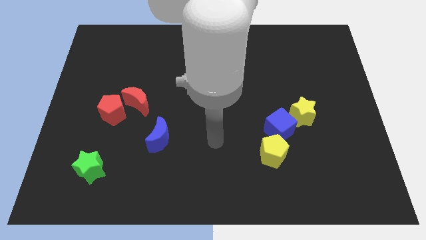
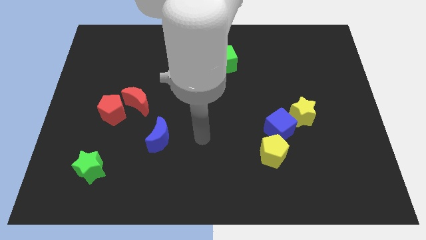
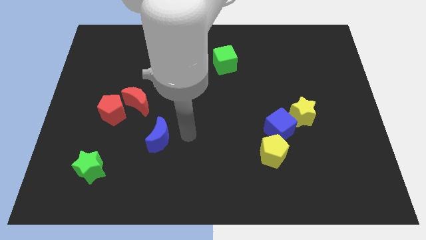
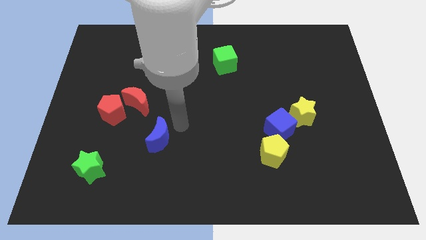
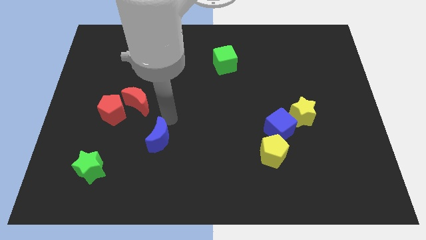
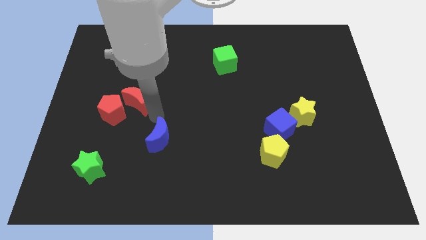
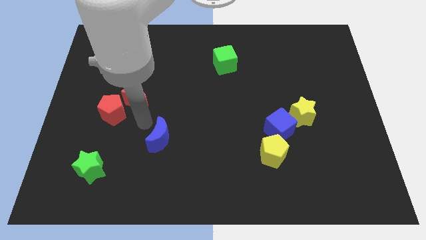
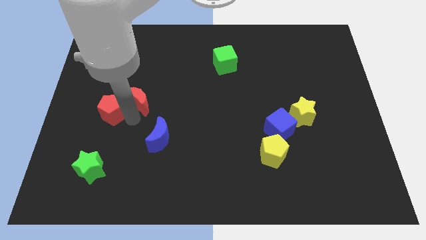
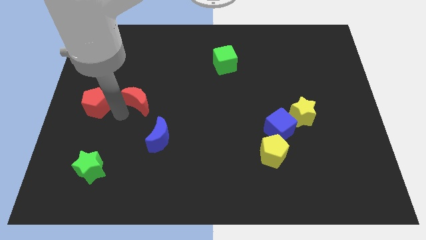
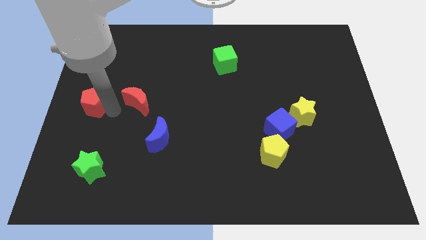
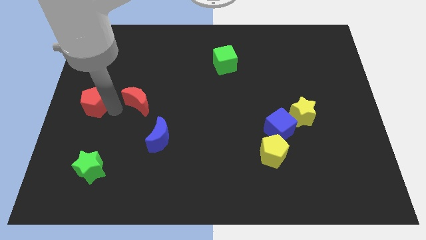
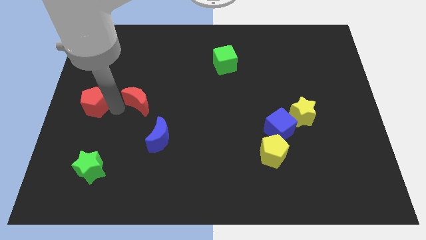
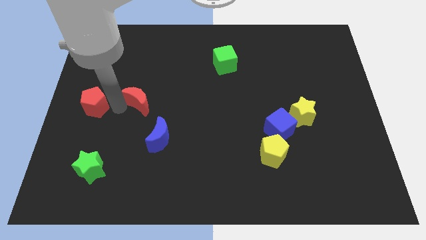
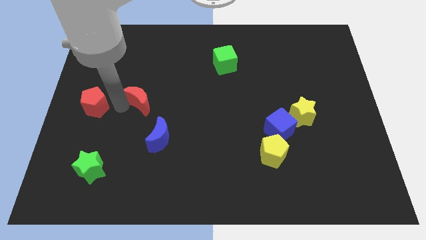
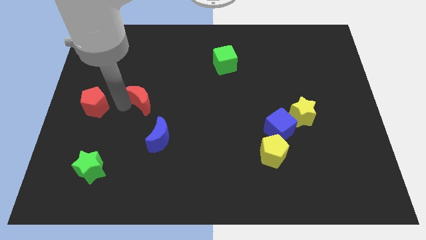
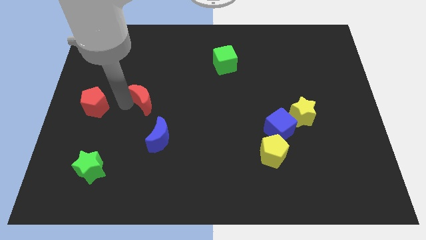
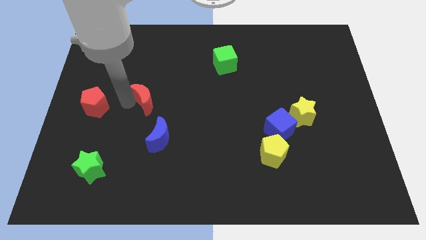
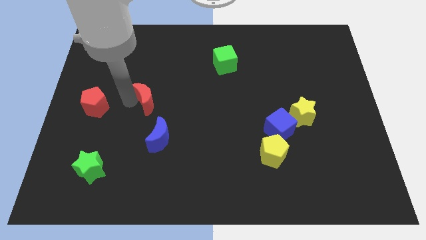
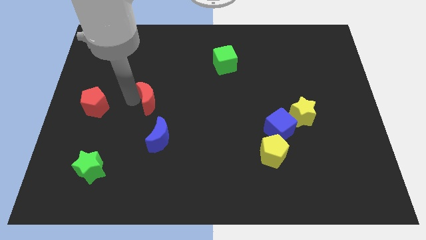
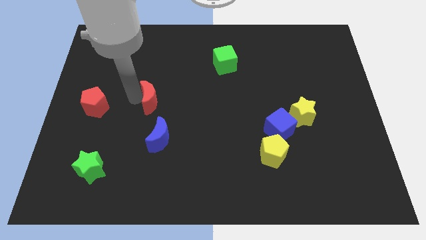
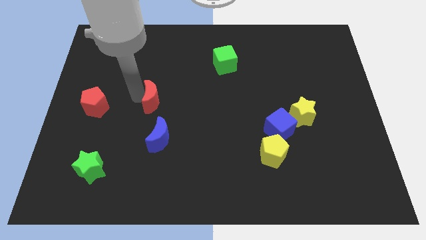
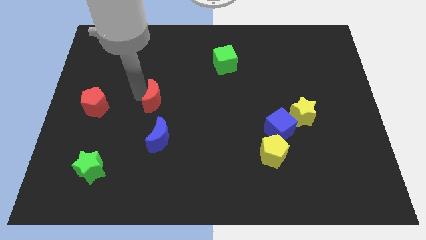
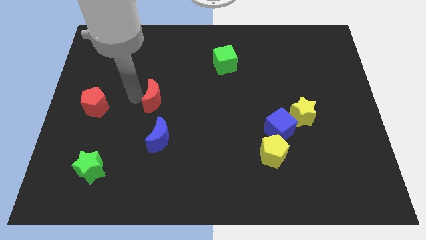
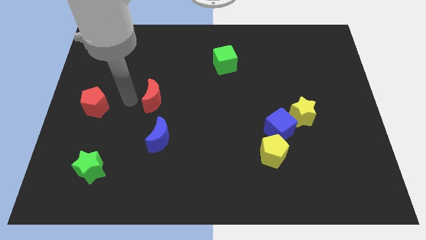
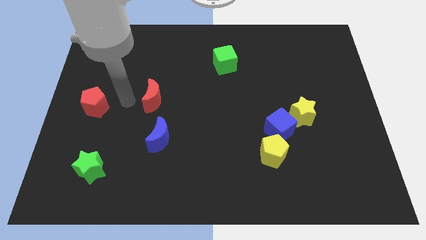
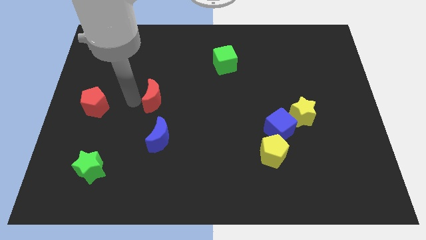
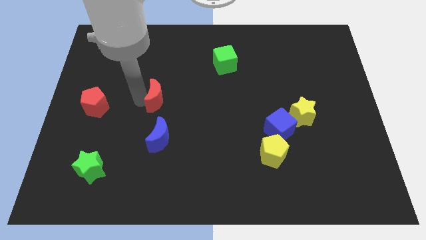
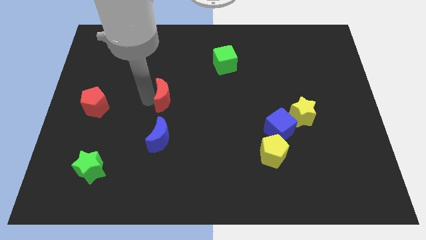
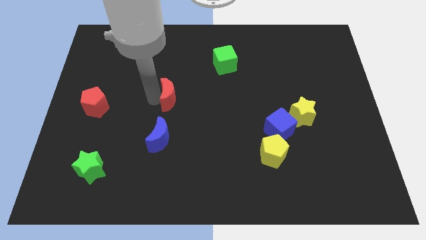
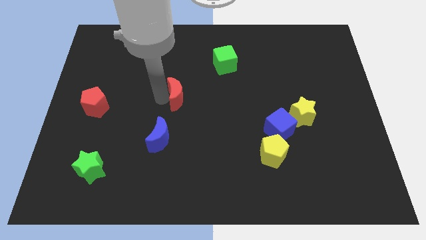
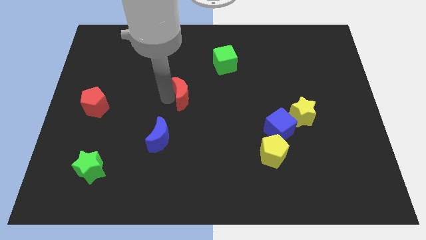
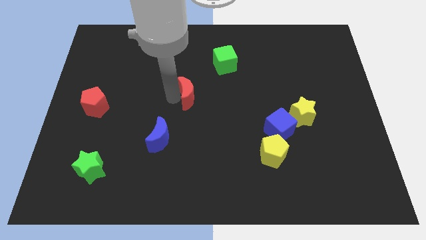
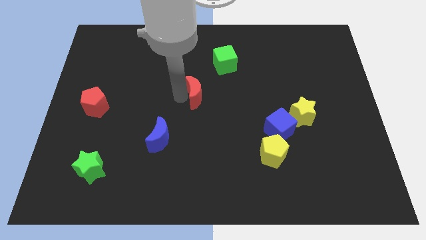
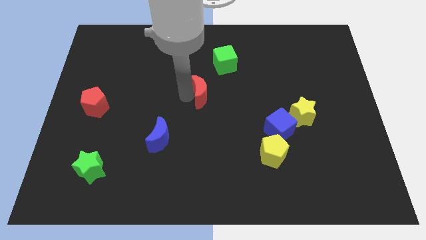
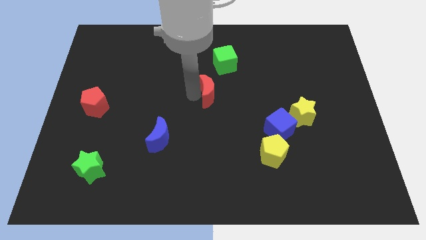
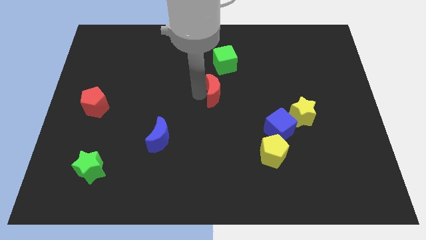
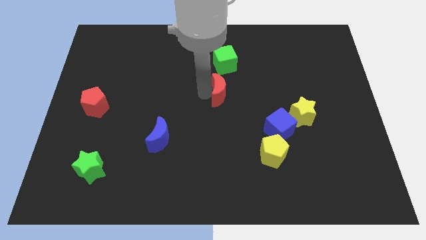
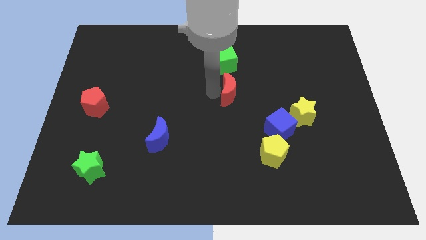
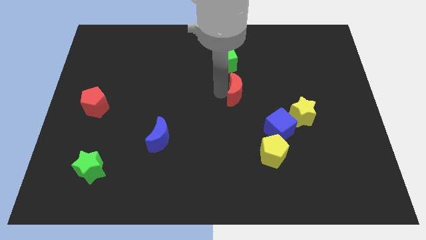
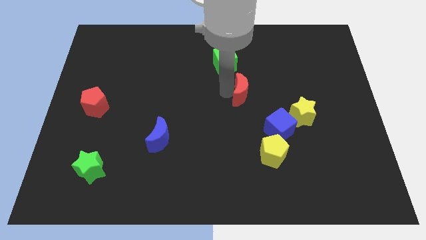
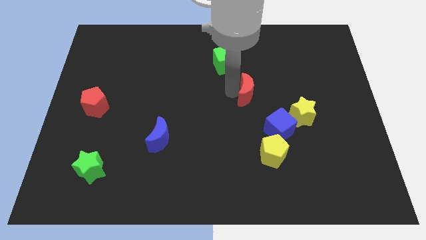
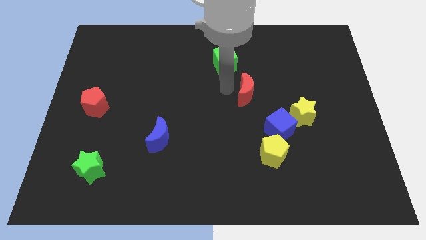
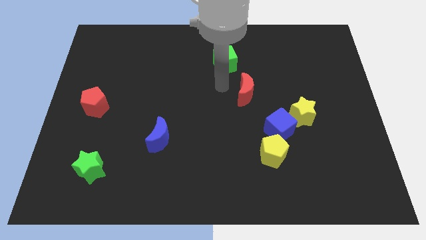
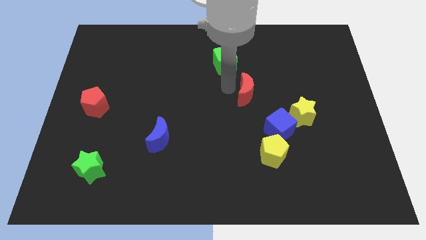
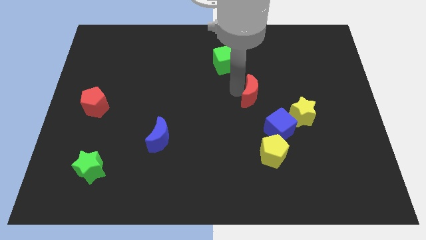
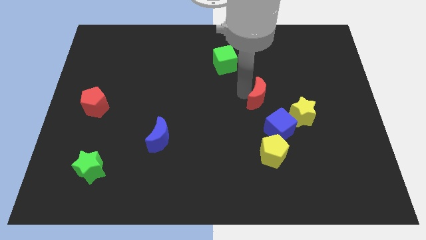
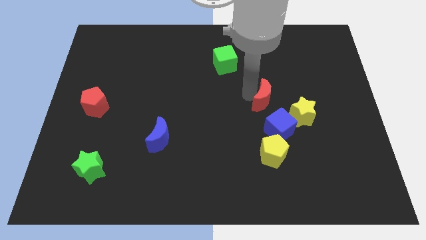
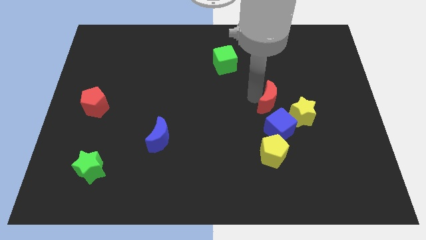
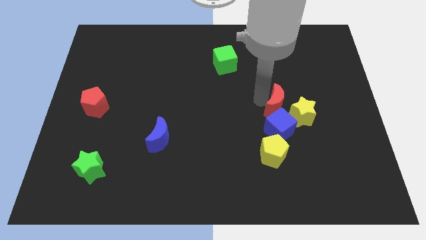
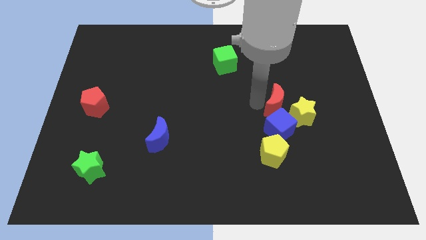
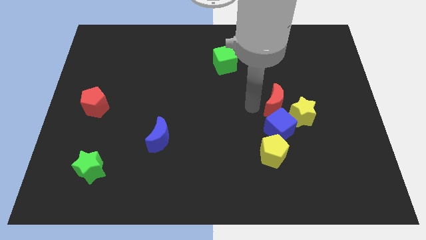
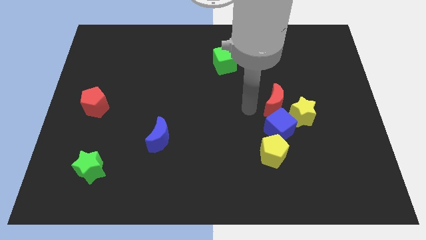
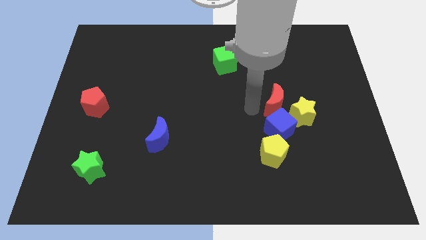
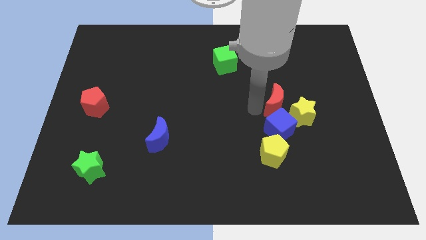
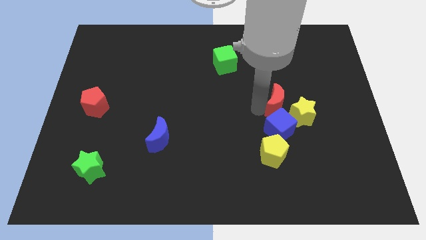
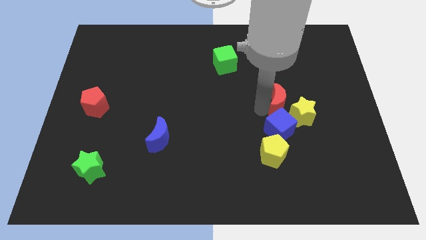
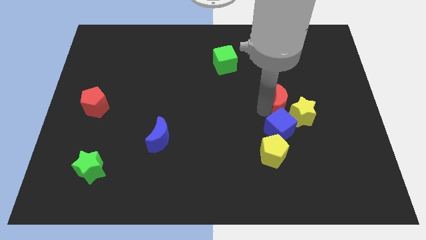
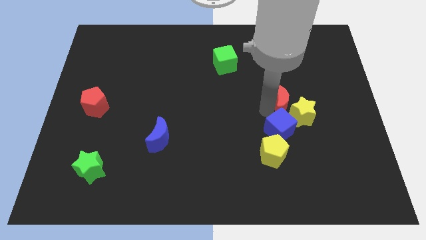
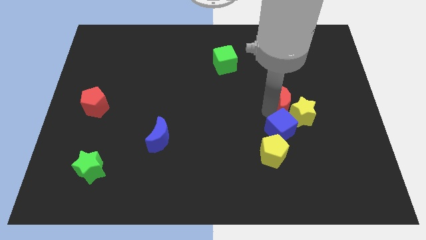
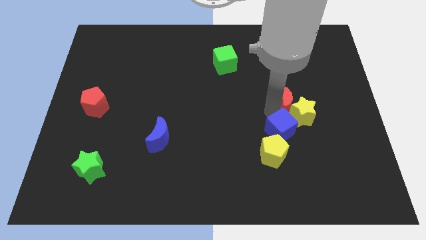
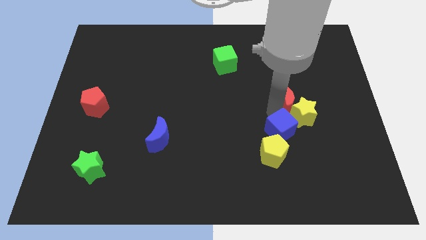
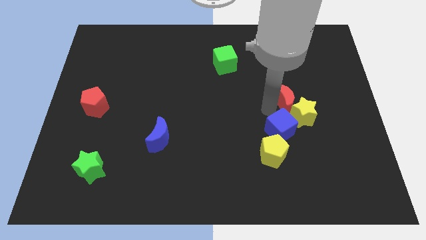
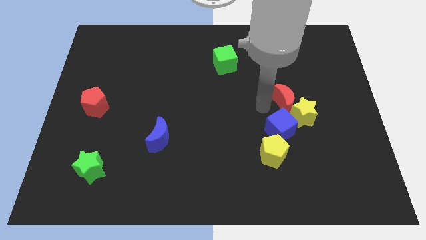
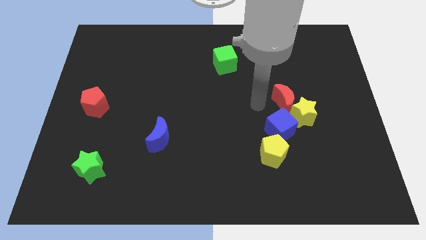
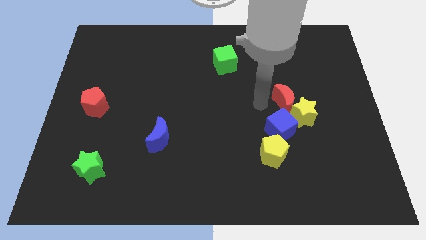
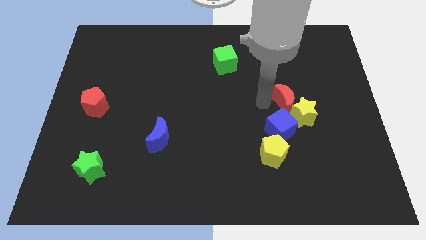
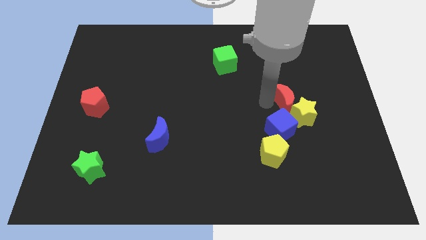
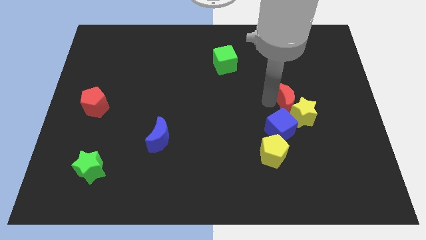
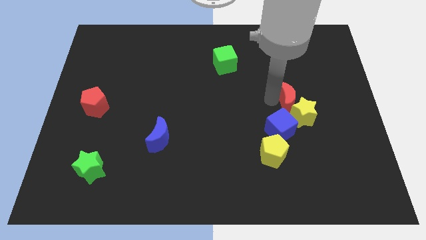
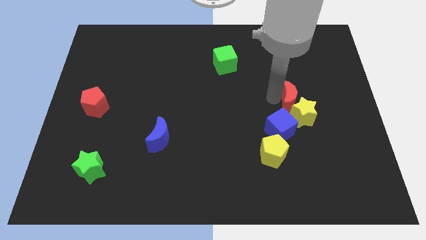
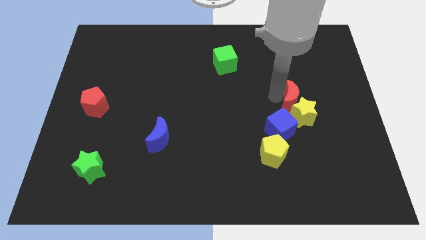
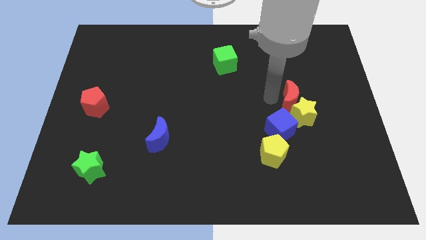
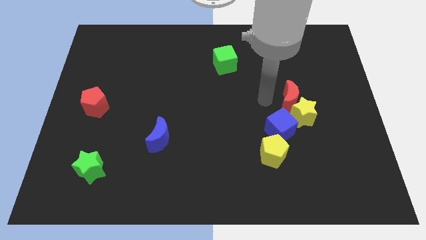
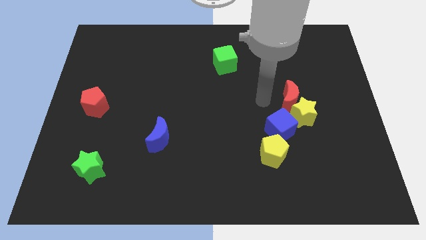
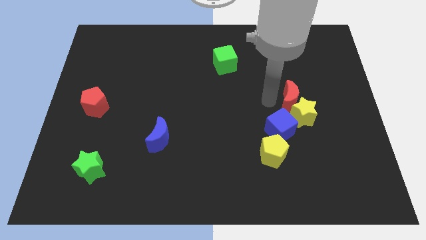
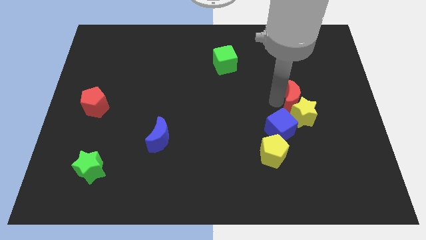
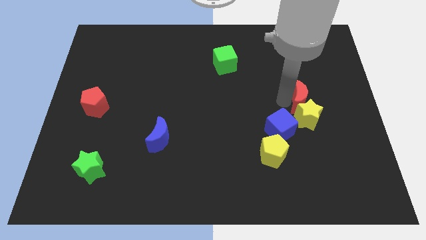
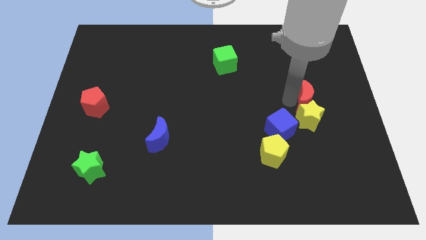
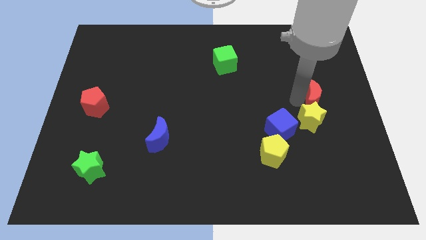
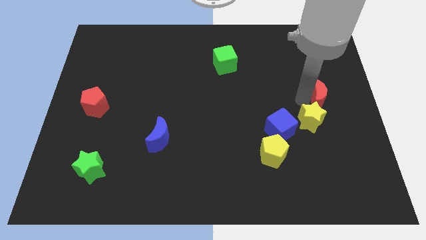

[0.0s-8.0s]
put the red moon to the right side of the board
